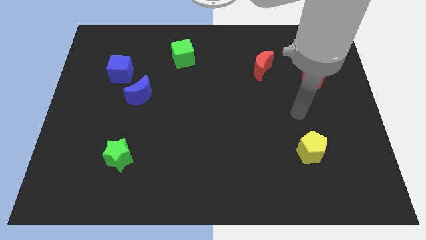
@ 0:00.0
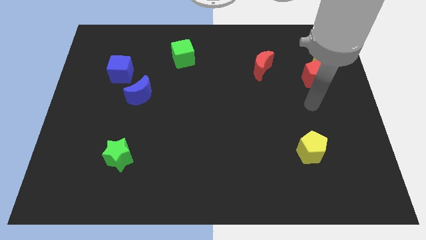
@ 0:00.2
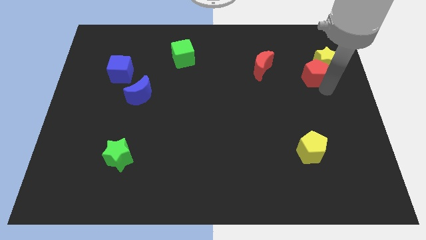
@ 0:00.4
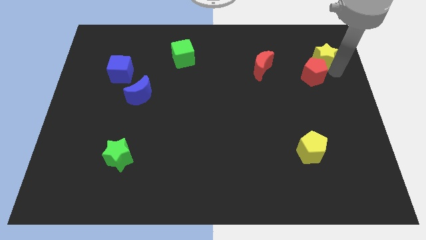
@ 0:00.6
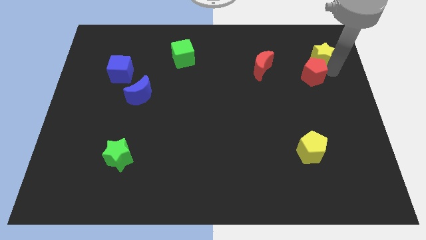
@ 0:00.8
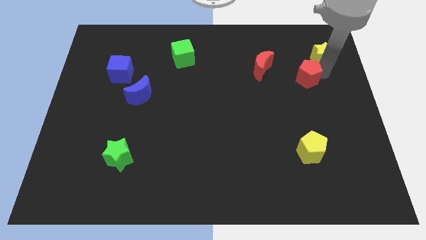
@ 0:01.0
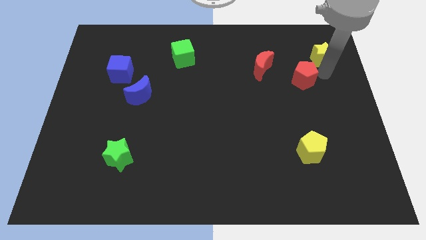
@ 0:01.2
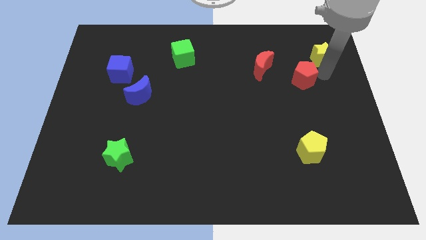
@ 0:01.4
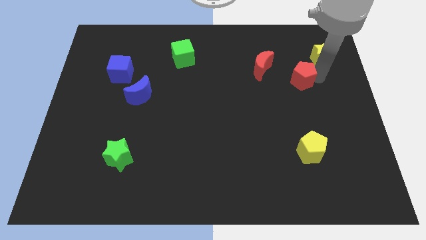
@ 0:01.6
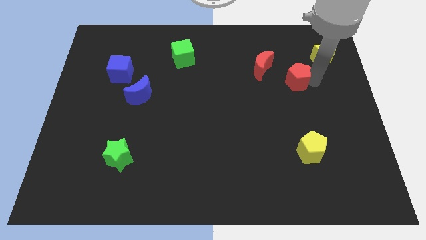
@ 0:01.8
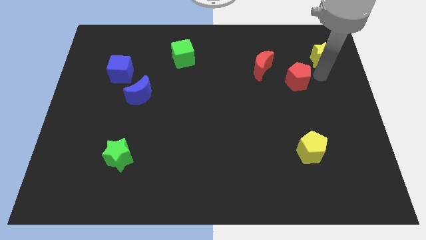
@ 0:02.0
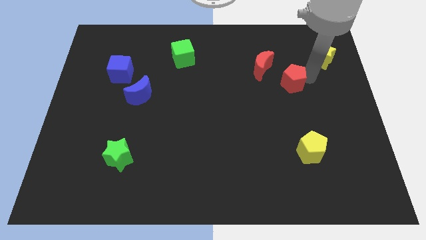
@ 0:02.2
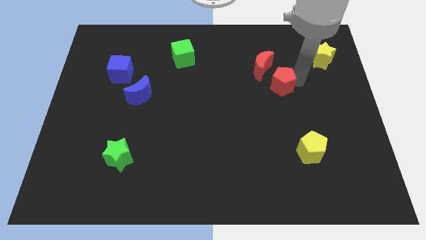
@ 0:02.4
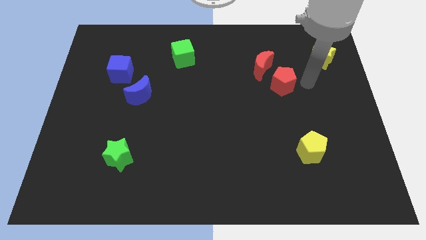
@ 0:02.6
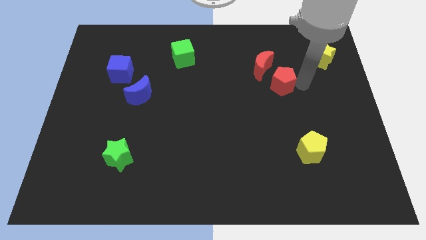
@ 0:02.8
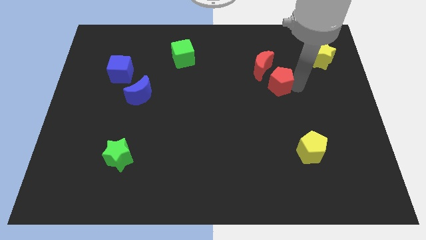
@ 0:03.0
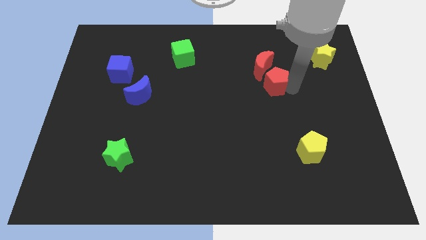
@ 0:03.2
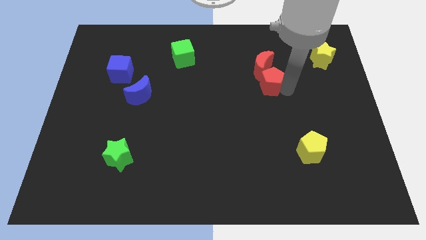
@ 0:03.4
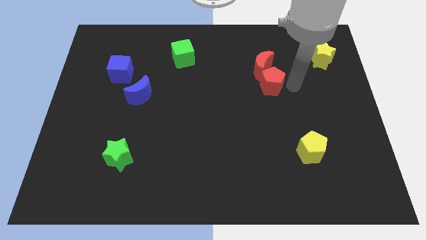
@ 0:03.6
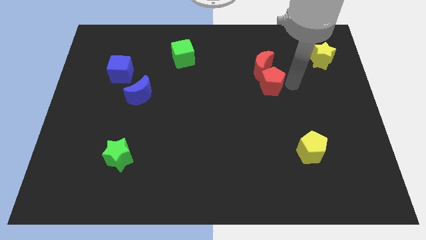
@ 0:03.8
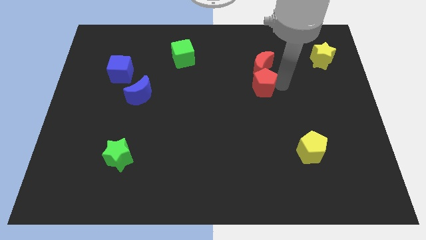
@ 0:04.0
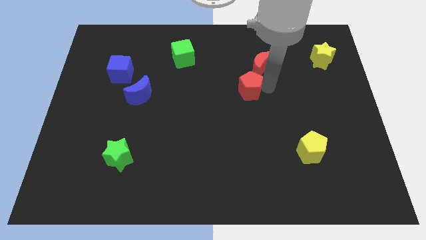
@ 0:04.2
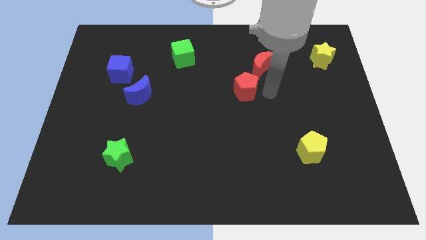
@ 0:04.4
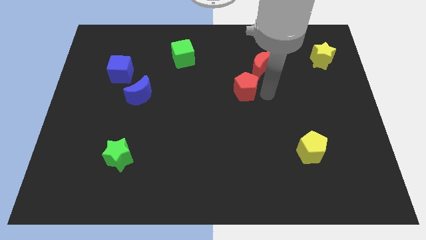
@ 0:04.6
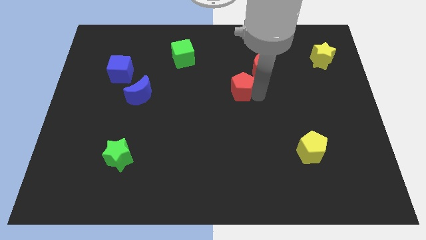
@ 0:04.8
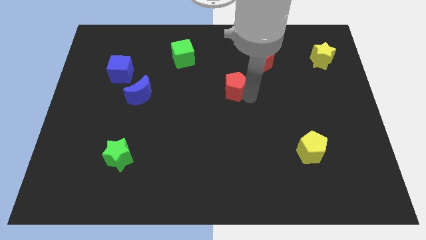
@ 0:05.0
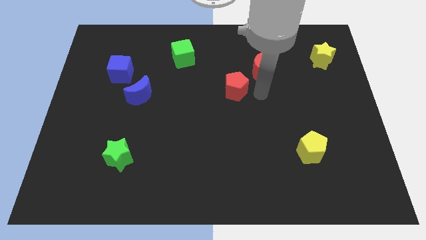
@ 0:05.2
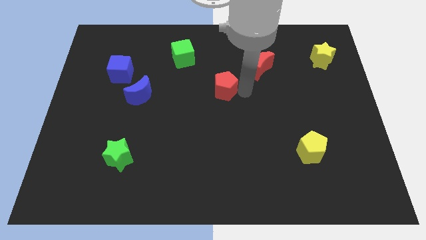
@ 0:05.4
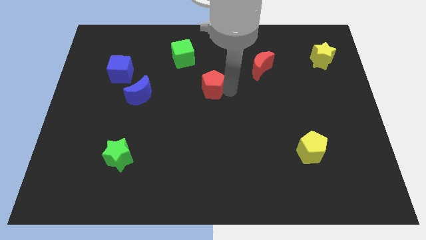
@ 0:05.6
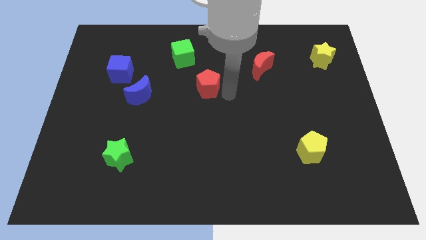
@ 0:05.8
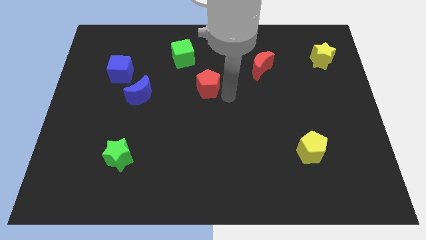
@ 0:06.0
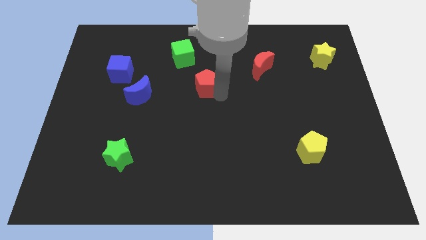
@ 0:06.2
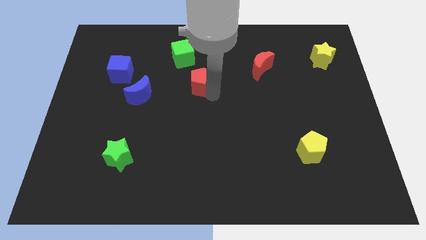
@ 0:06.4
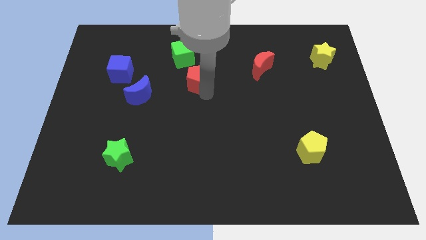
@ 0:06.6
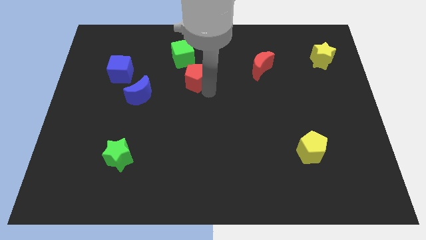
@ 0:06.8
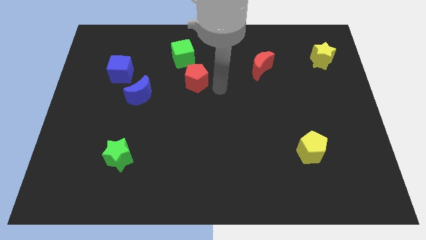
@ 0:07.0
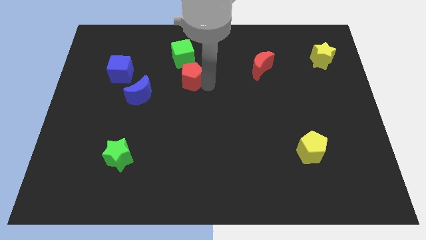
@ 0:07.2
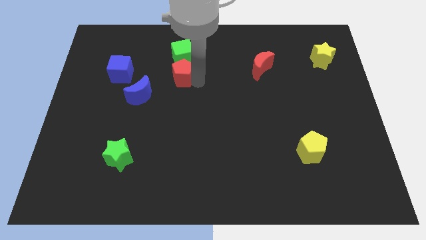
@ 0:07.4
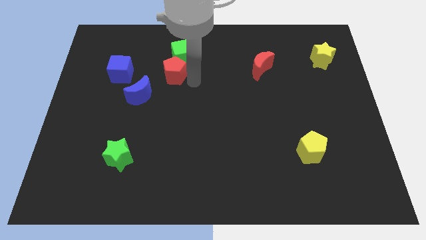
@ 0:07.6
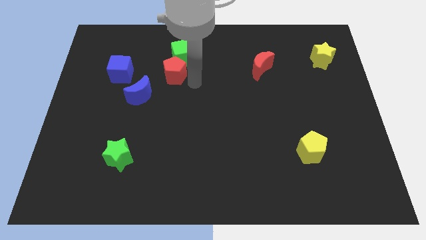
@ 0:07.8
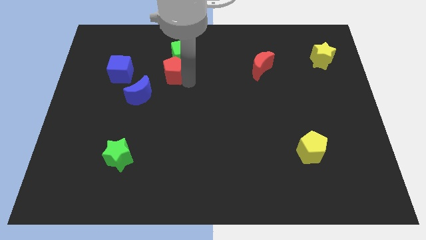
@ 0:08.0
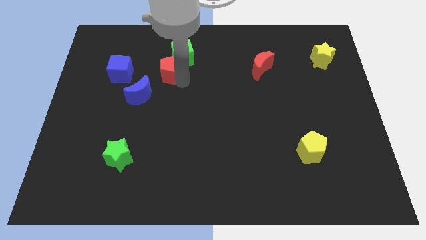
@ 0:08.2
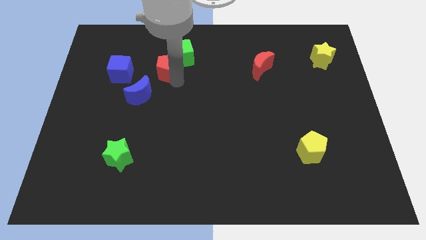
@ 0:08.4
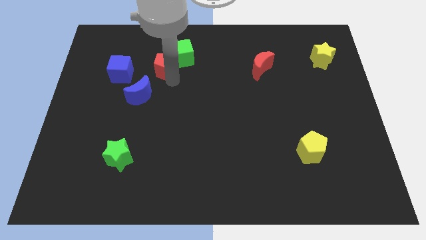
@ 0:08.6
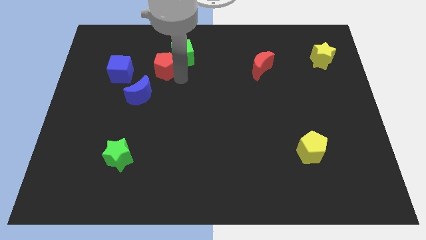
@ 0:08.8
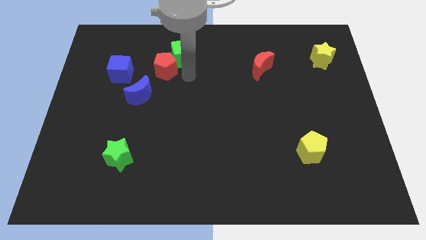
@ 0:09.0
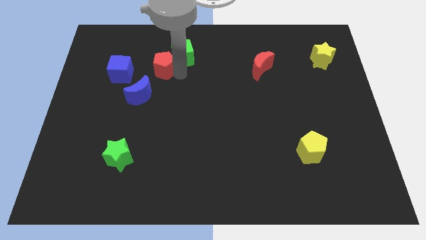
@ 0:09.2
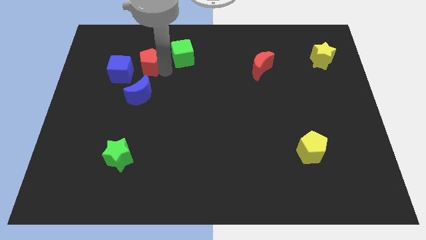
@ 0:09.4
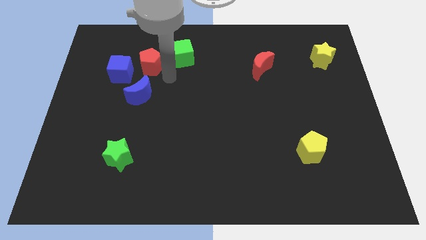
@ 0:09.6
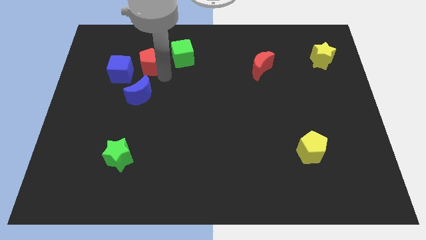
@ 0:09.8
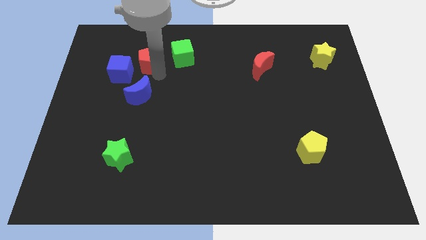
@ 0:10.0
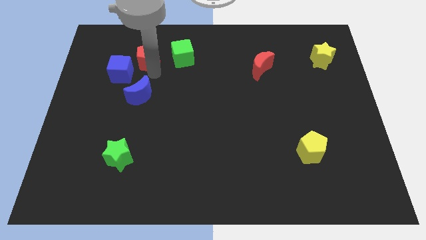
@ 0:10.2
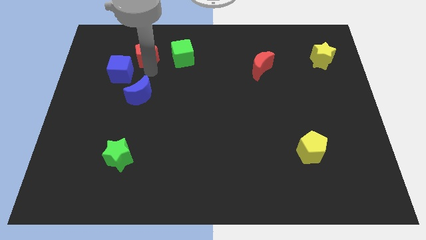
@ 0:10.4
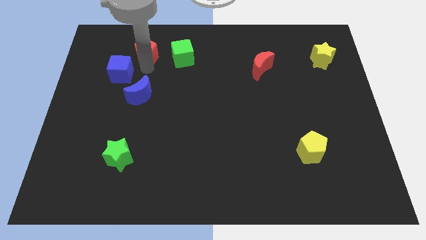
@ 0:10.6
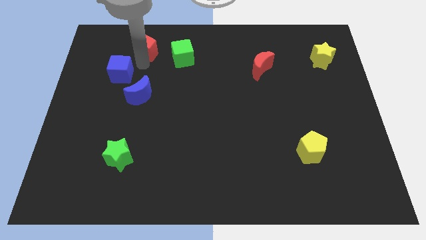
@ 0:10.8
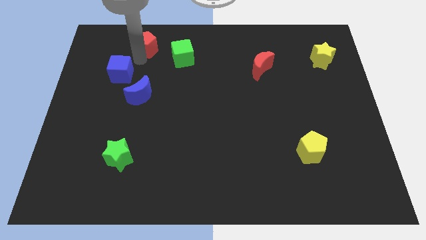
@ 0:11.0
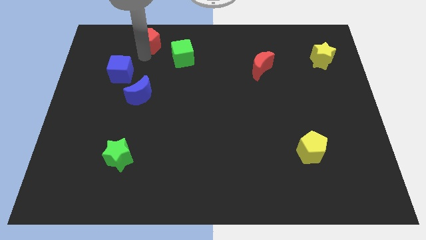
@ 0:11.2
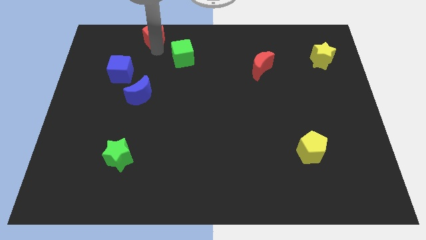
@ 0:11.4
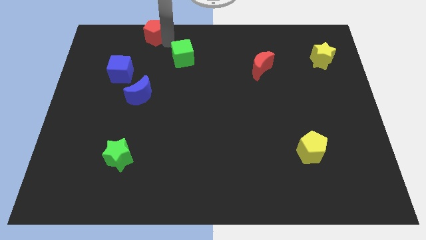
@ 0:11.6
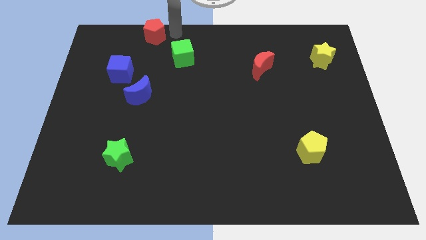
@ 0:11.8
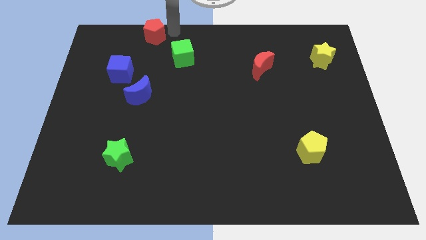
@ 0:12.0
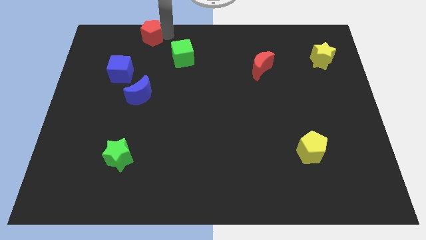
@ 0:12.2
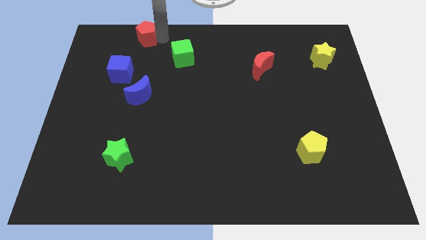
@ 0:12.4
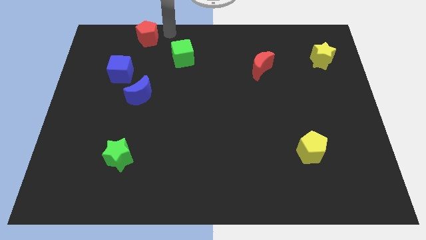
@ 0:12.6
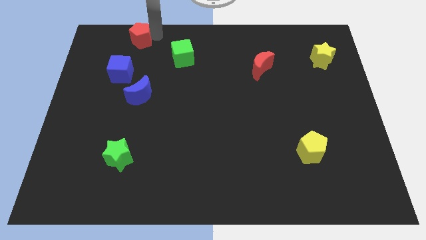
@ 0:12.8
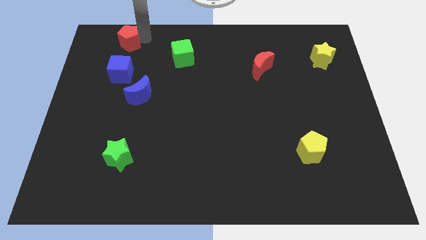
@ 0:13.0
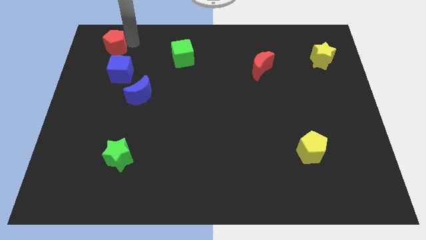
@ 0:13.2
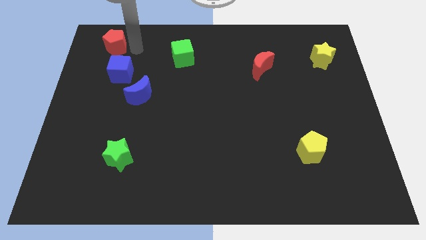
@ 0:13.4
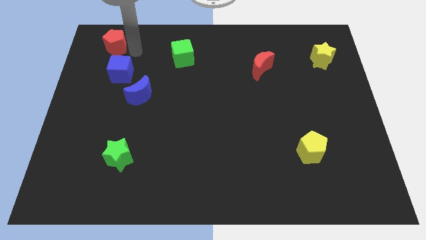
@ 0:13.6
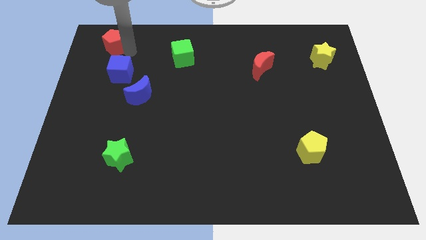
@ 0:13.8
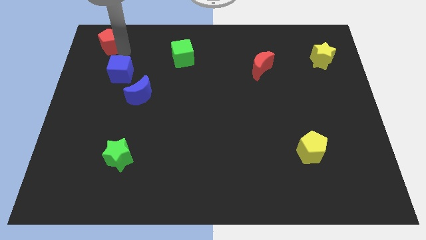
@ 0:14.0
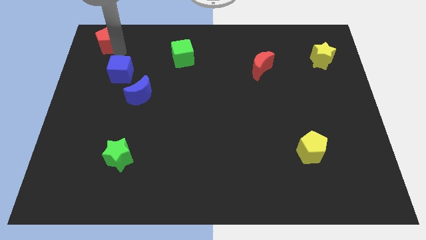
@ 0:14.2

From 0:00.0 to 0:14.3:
put the red pentagon to the top left
